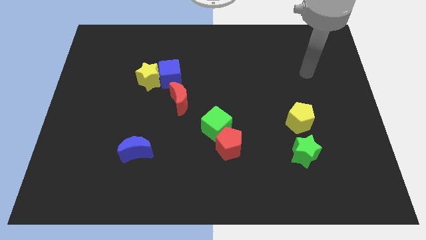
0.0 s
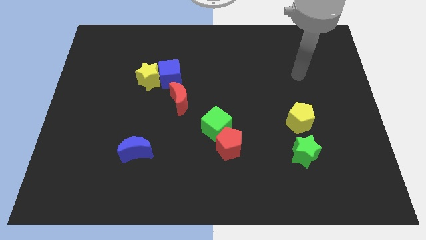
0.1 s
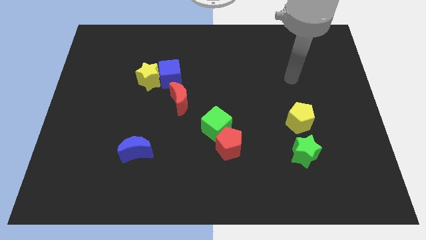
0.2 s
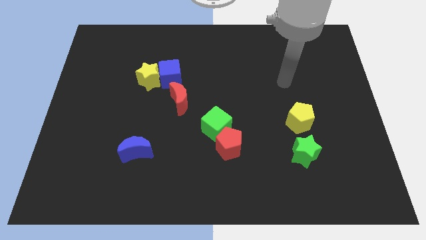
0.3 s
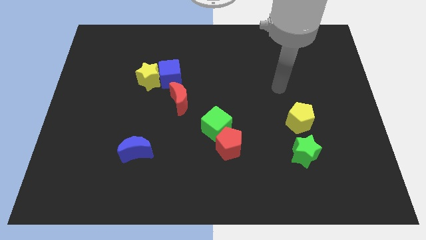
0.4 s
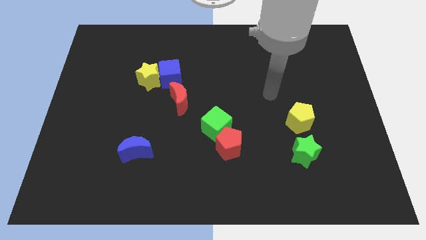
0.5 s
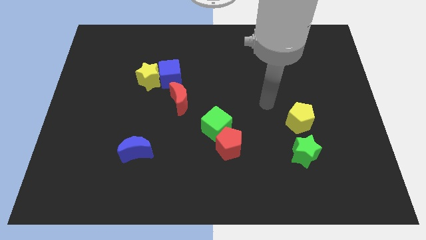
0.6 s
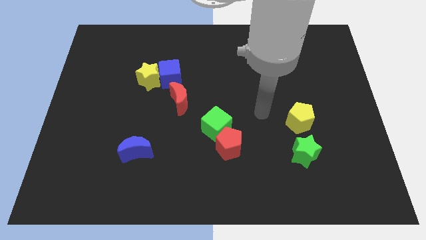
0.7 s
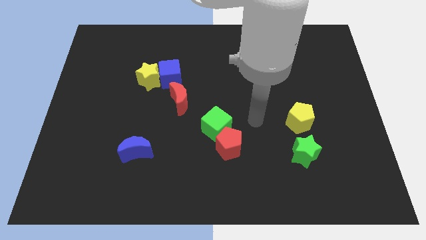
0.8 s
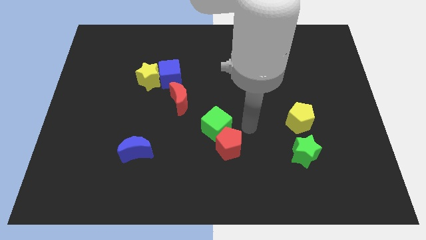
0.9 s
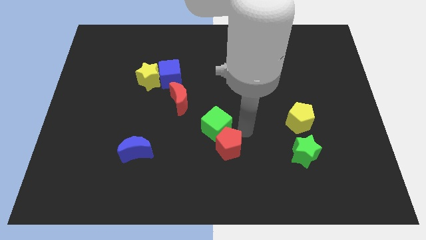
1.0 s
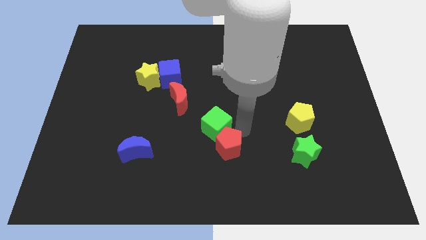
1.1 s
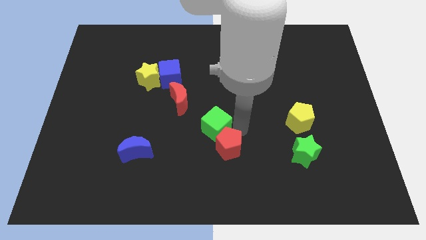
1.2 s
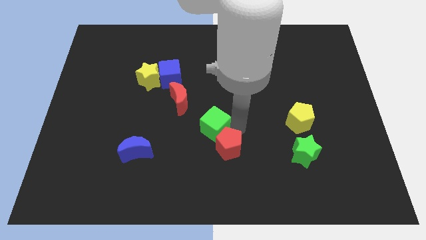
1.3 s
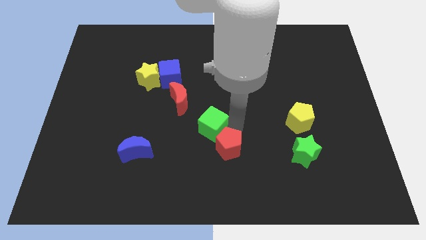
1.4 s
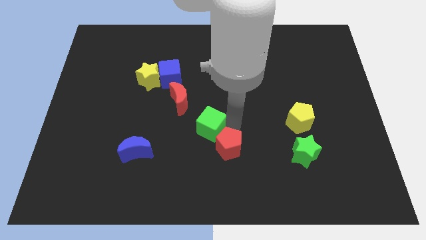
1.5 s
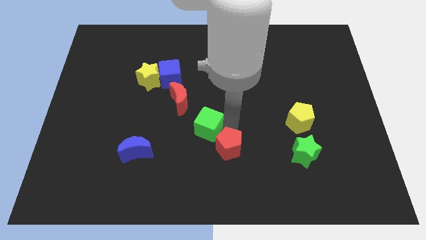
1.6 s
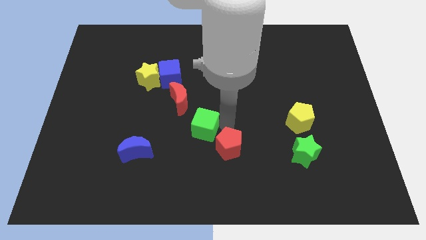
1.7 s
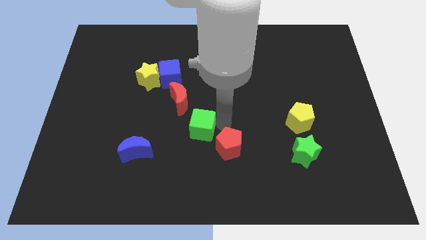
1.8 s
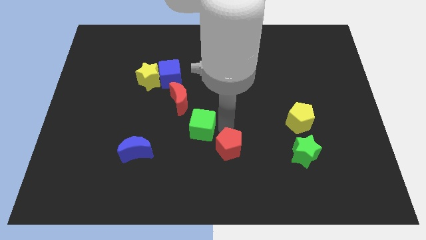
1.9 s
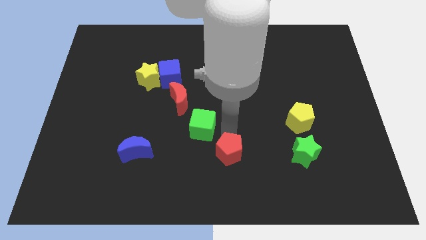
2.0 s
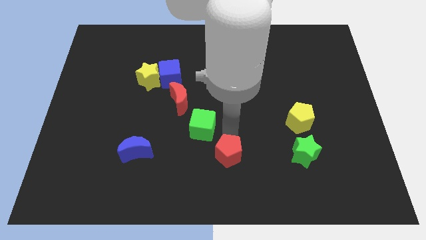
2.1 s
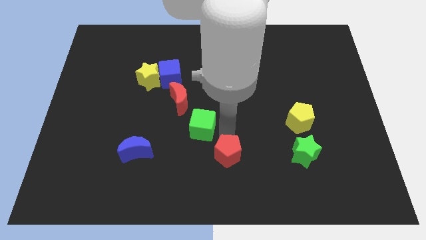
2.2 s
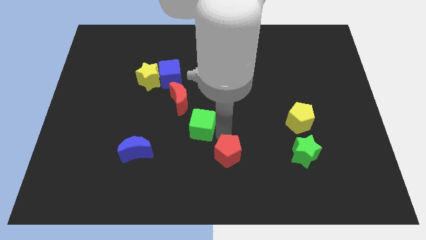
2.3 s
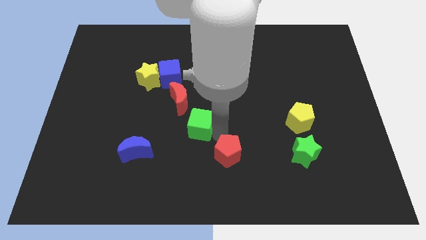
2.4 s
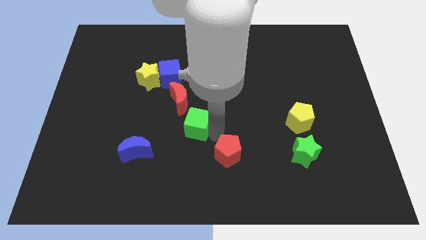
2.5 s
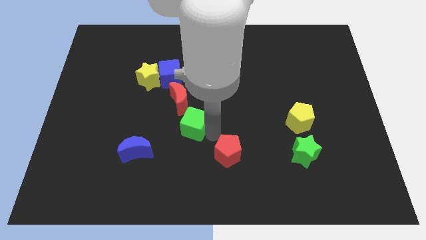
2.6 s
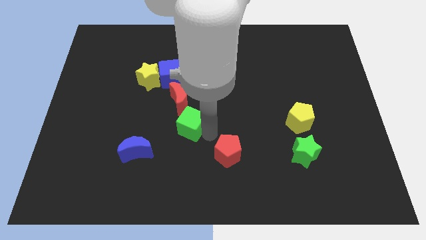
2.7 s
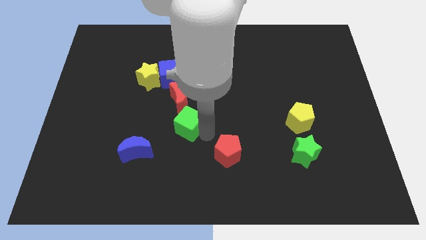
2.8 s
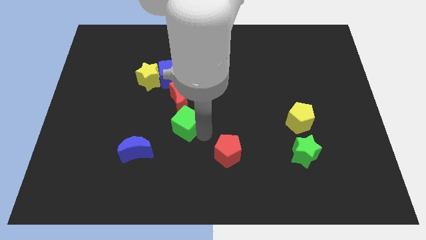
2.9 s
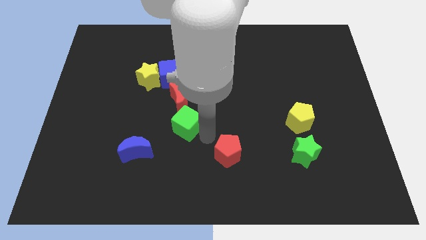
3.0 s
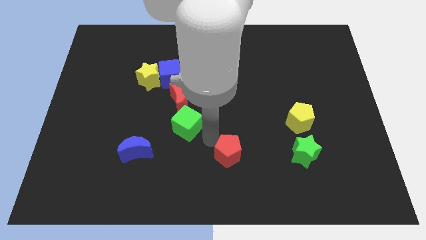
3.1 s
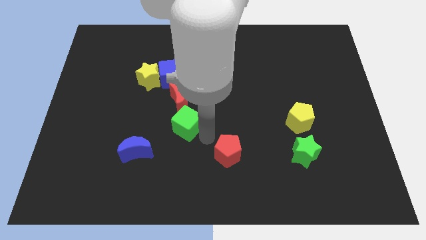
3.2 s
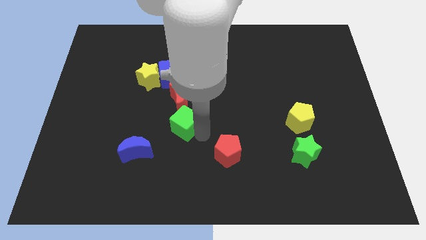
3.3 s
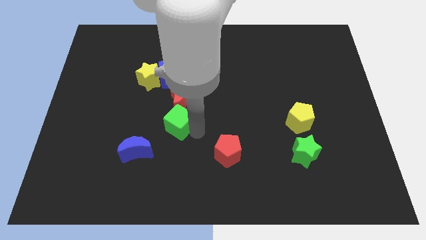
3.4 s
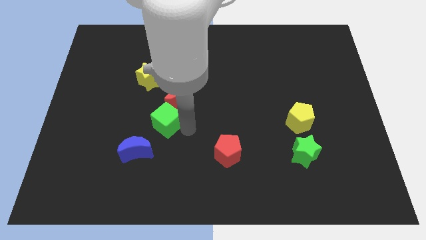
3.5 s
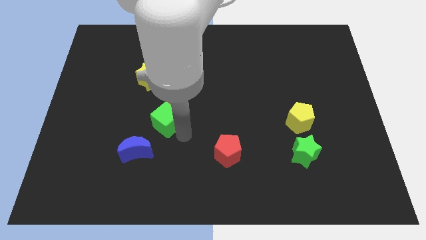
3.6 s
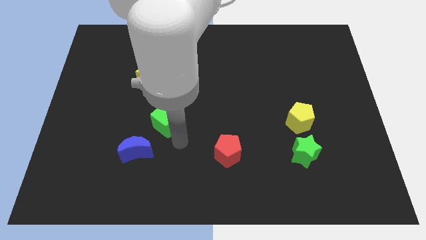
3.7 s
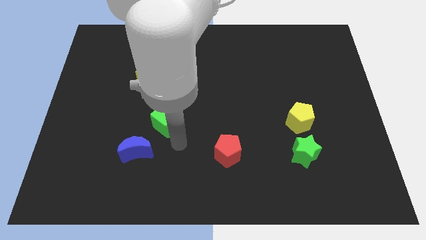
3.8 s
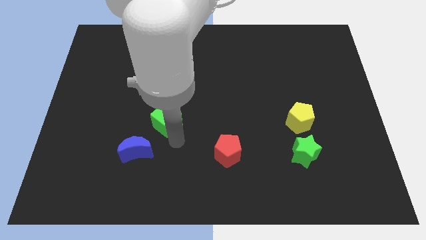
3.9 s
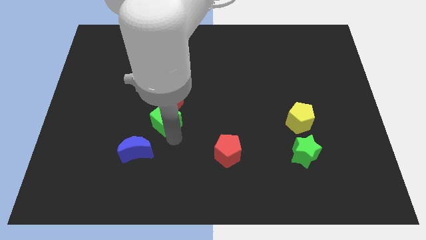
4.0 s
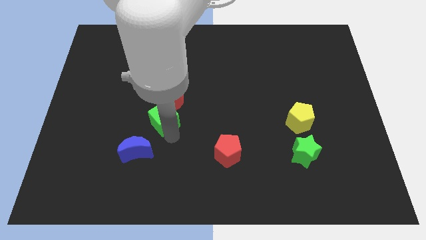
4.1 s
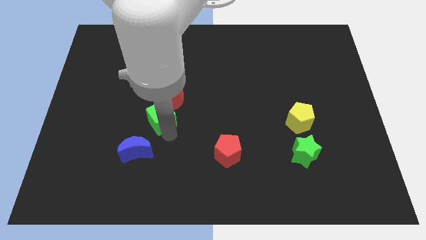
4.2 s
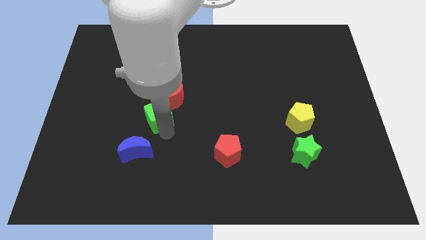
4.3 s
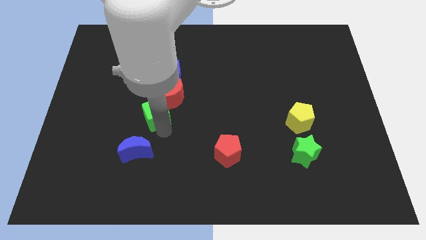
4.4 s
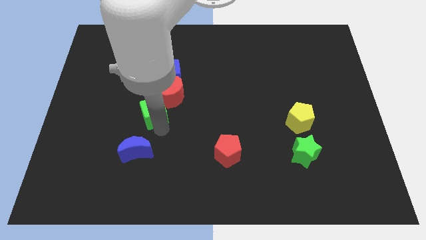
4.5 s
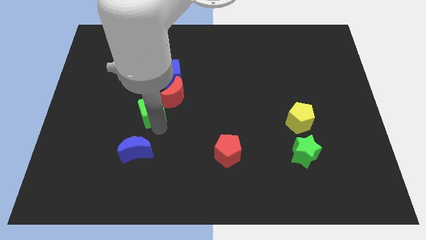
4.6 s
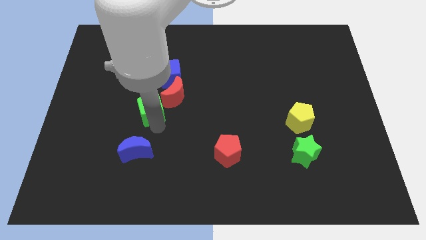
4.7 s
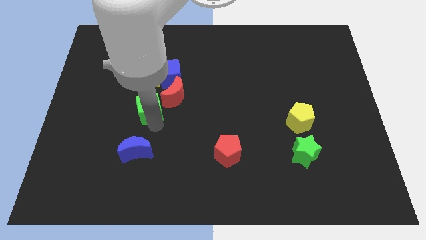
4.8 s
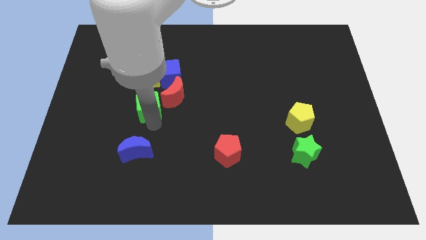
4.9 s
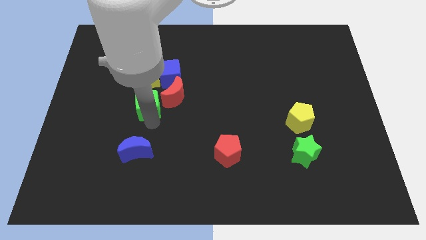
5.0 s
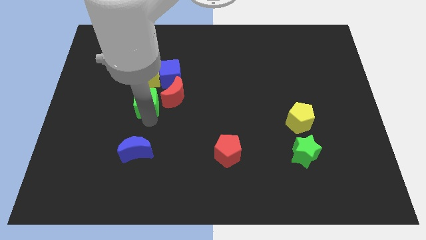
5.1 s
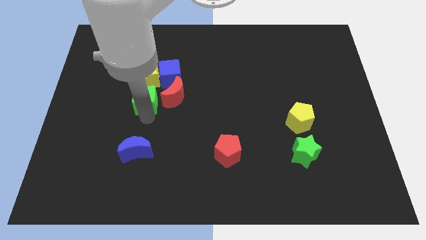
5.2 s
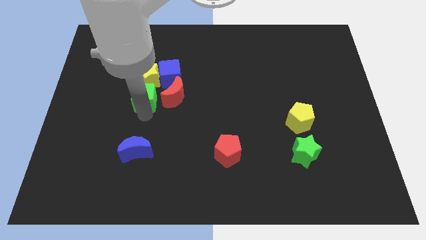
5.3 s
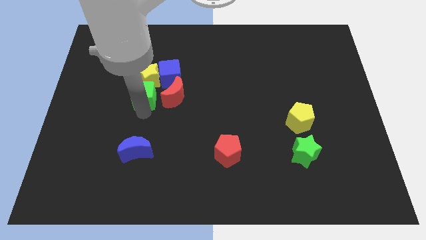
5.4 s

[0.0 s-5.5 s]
put the green cube to the yellow star

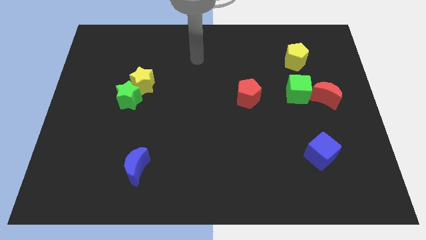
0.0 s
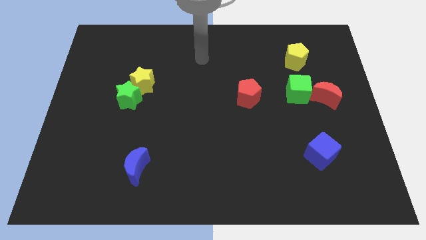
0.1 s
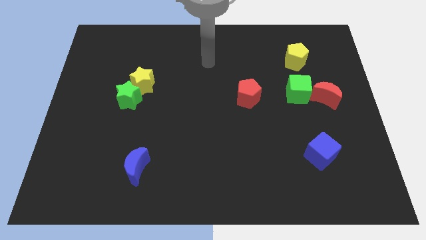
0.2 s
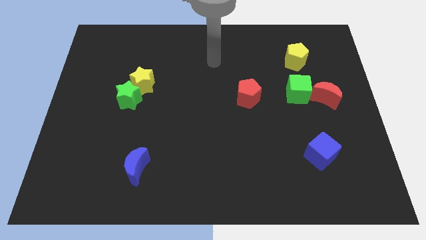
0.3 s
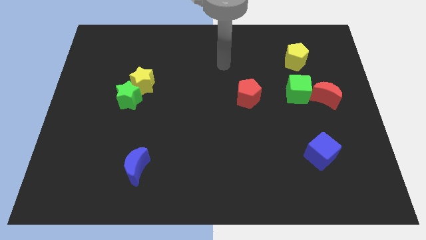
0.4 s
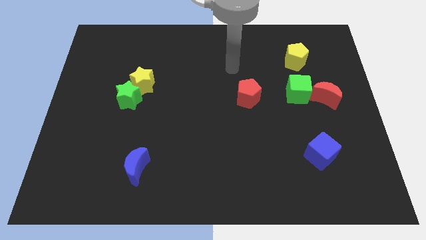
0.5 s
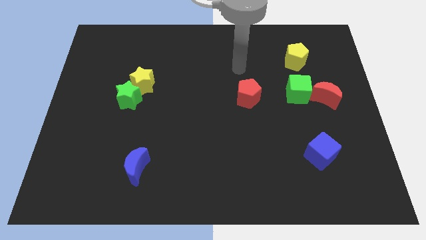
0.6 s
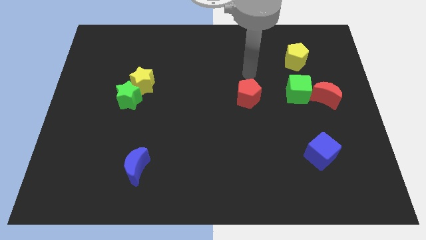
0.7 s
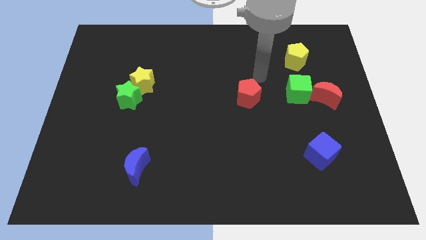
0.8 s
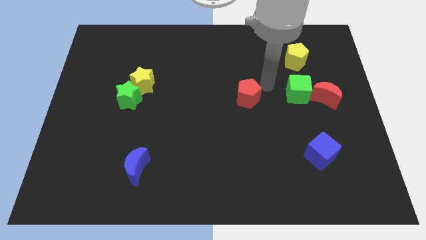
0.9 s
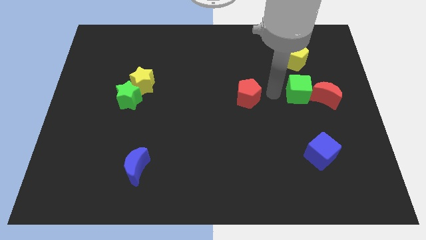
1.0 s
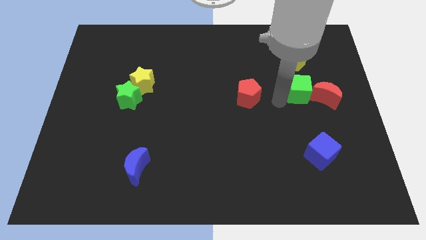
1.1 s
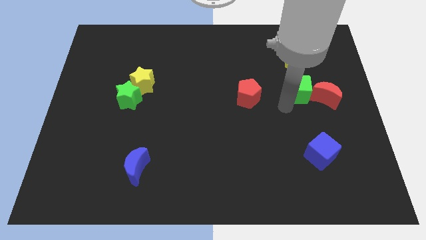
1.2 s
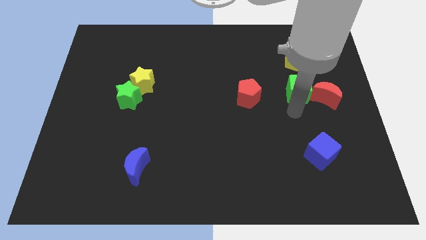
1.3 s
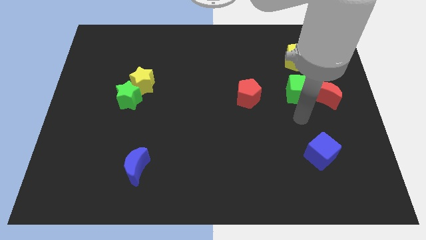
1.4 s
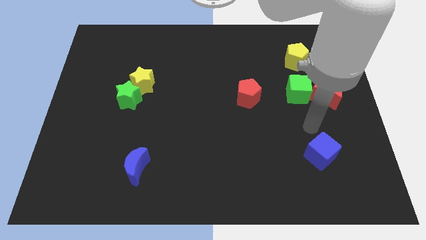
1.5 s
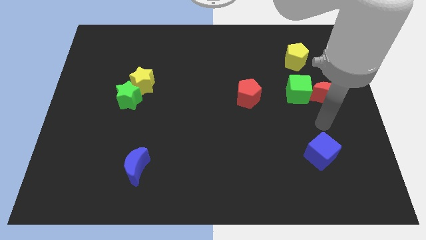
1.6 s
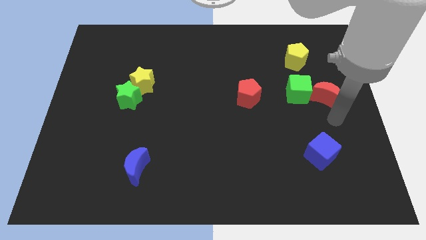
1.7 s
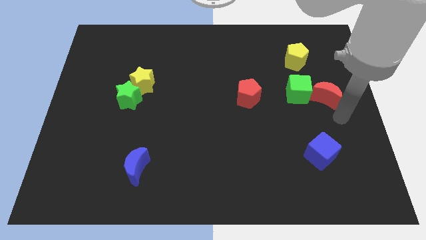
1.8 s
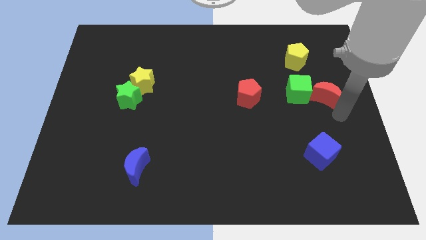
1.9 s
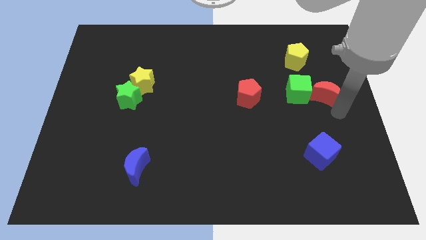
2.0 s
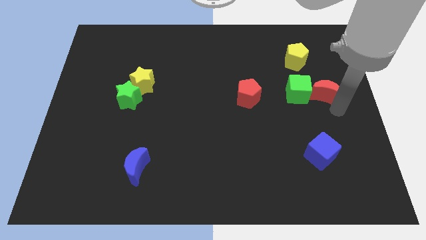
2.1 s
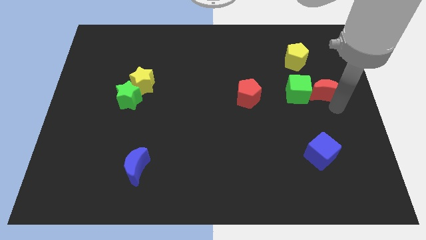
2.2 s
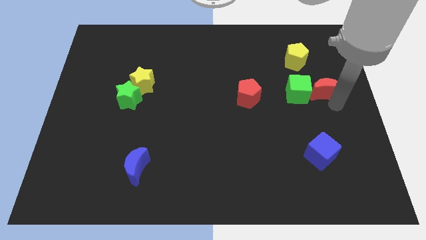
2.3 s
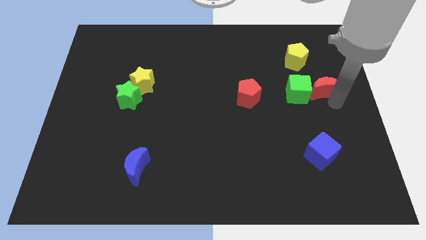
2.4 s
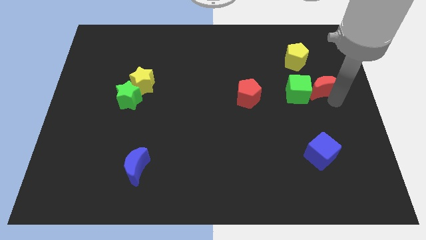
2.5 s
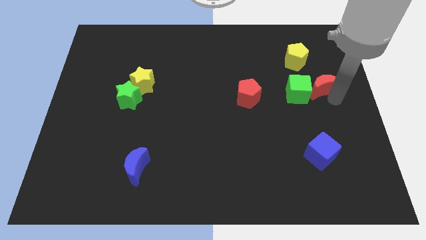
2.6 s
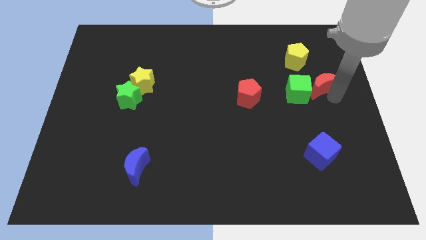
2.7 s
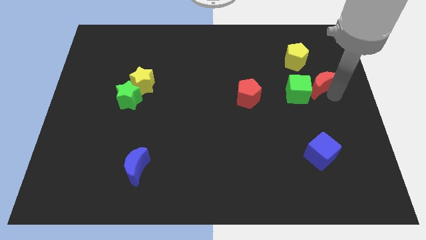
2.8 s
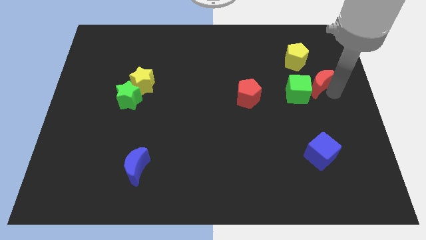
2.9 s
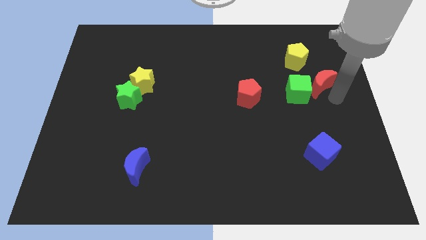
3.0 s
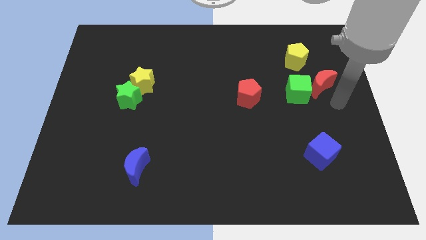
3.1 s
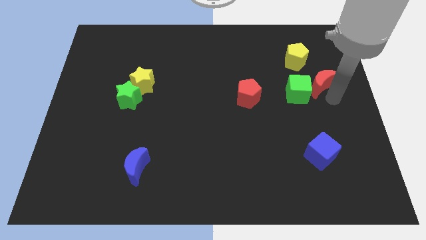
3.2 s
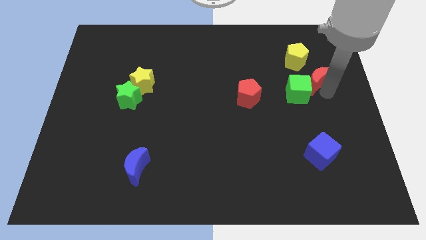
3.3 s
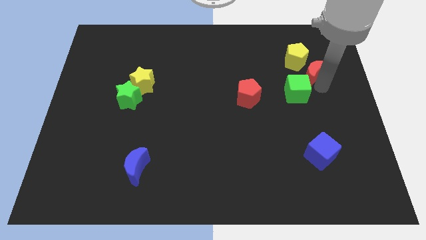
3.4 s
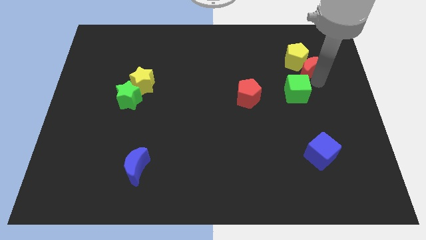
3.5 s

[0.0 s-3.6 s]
move the red moon next to the yellow pentagon
